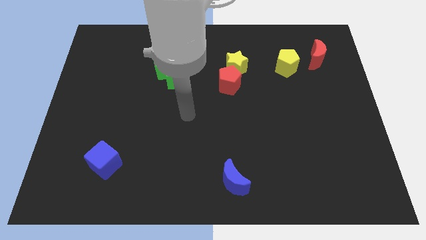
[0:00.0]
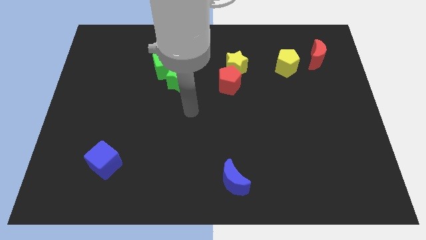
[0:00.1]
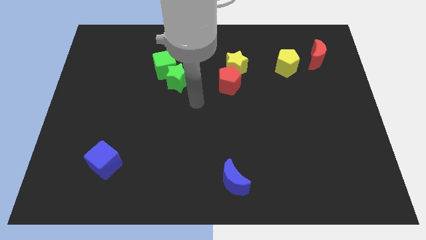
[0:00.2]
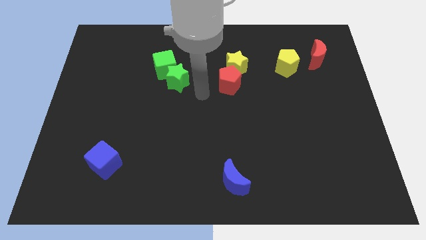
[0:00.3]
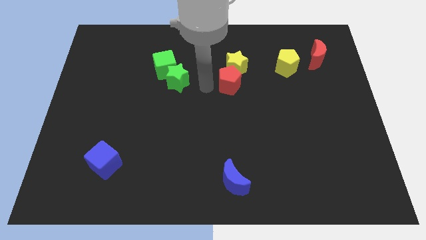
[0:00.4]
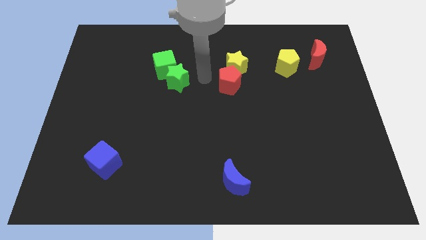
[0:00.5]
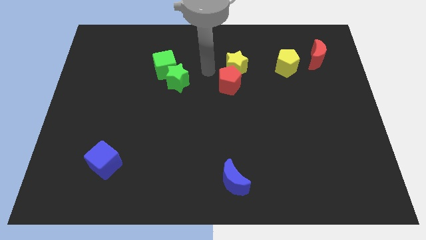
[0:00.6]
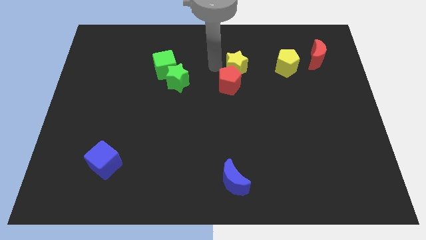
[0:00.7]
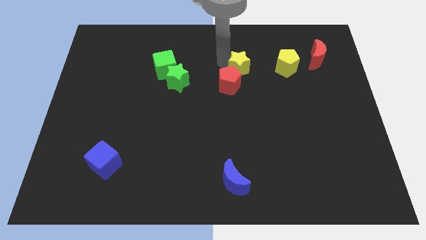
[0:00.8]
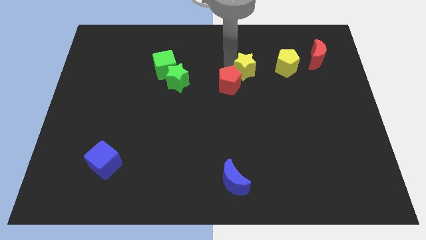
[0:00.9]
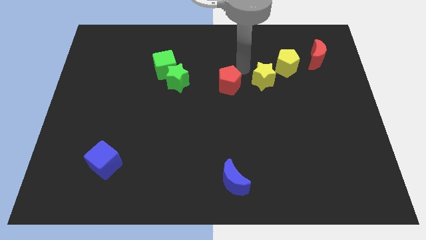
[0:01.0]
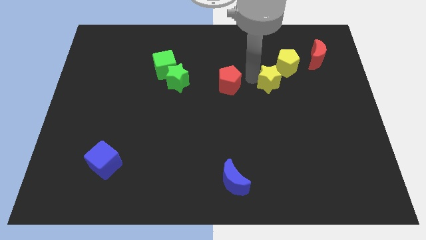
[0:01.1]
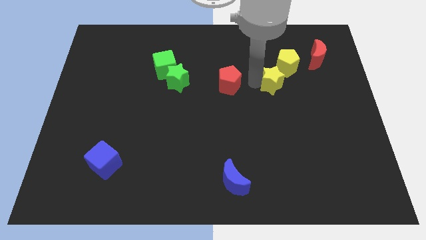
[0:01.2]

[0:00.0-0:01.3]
move the red pentagon away from the yellow star

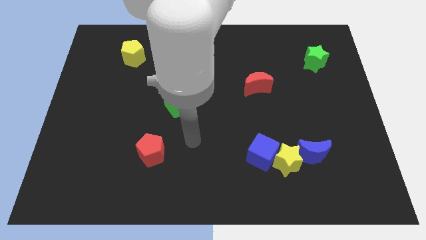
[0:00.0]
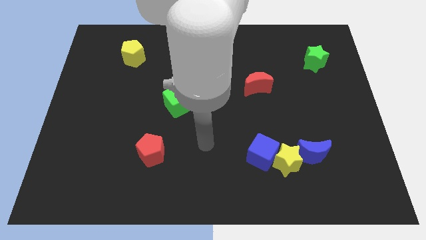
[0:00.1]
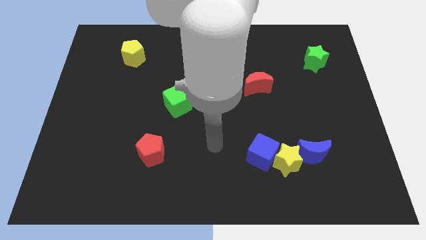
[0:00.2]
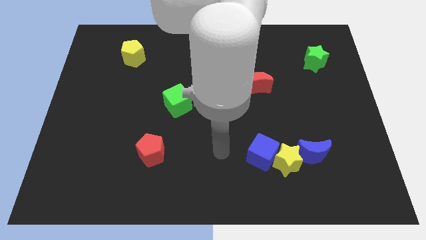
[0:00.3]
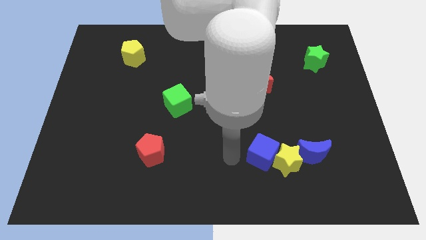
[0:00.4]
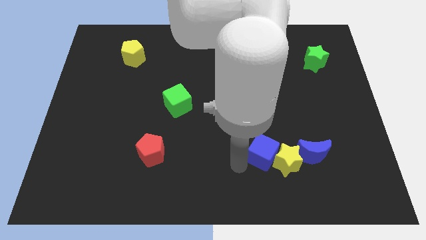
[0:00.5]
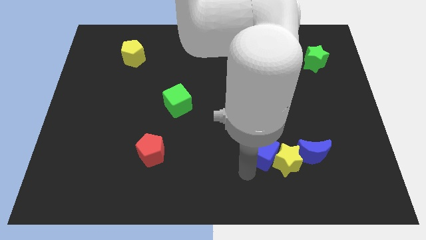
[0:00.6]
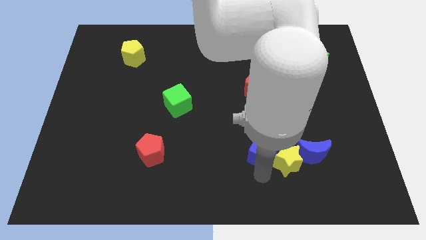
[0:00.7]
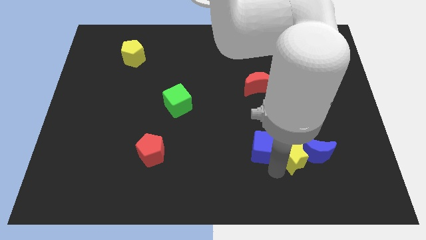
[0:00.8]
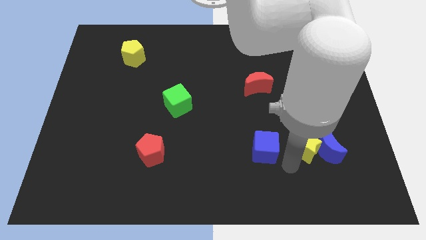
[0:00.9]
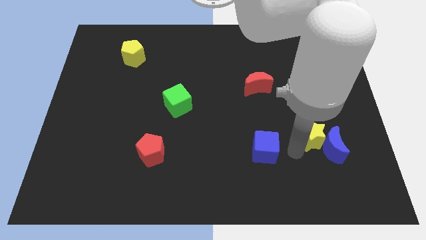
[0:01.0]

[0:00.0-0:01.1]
pull the blue cube apart from the yellow star

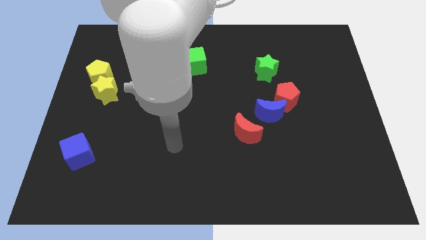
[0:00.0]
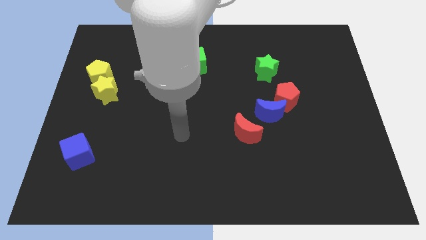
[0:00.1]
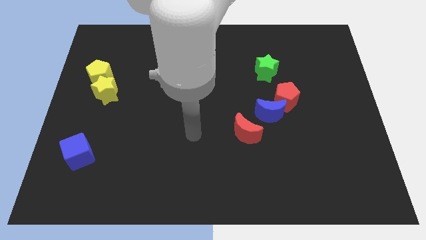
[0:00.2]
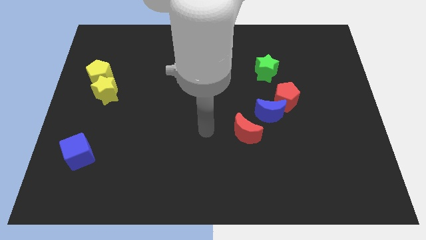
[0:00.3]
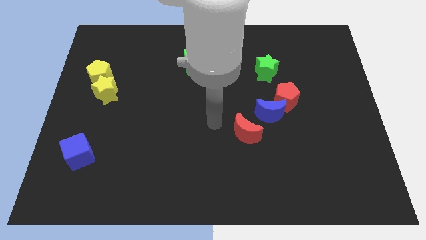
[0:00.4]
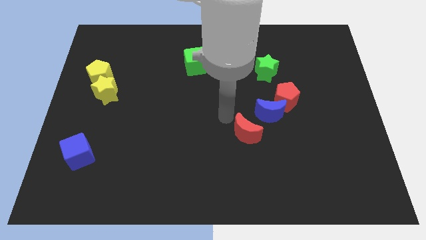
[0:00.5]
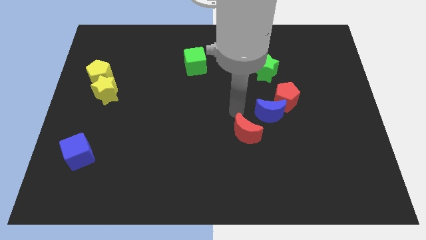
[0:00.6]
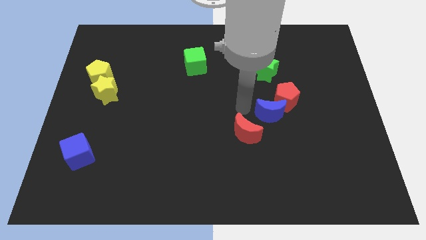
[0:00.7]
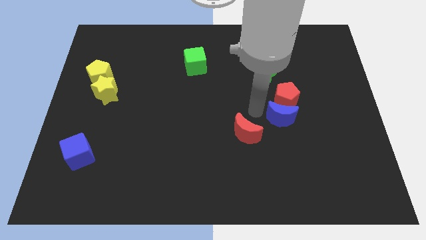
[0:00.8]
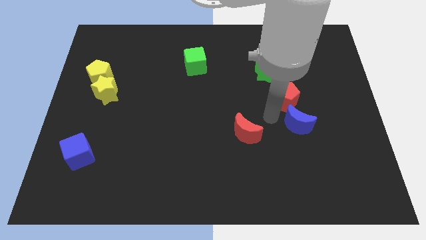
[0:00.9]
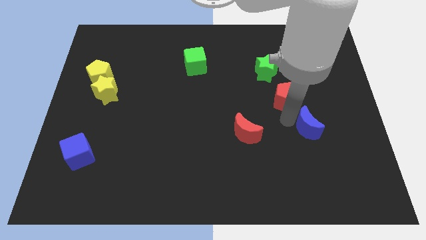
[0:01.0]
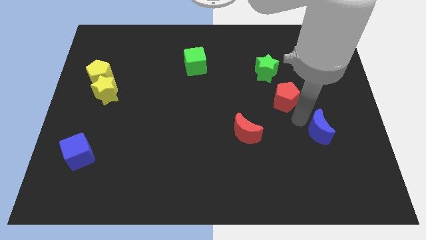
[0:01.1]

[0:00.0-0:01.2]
move the red pentagon away from the blue moon

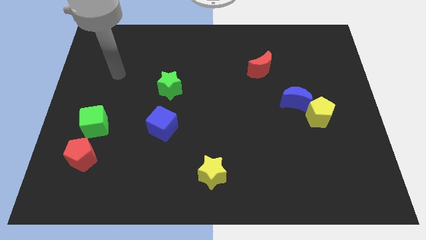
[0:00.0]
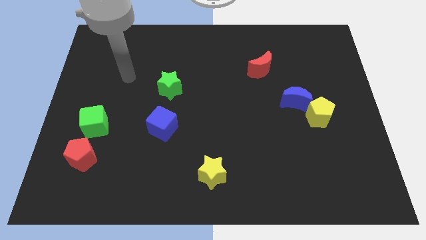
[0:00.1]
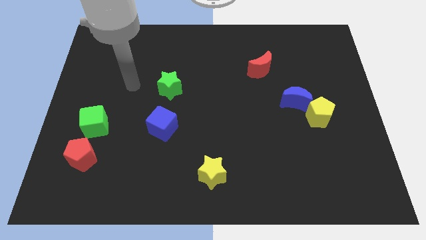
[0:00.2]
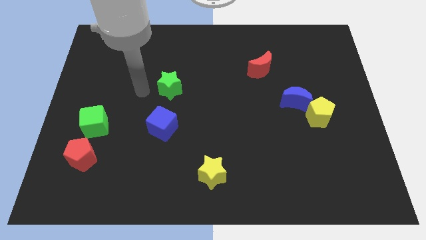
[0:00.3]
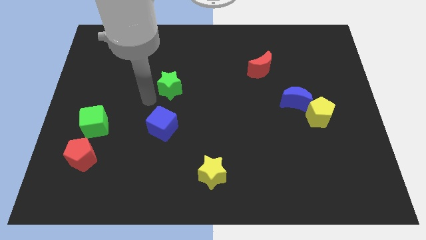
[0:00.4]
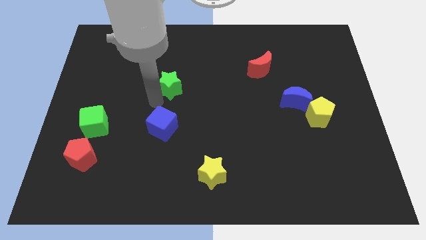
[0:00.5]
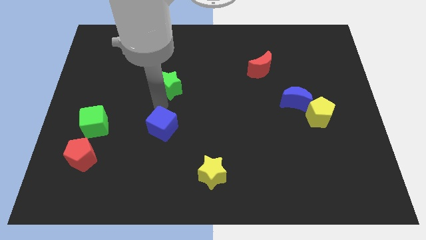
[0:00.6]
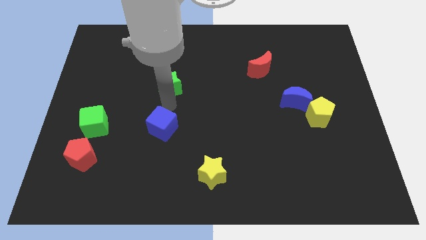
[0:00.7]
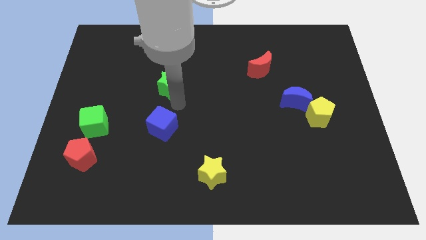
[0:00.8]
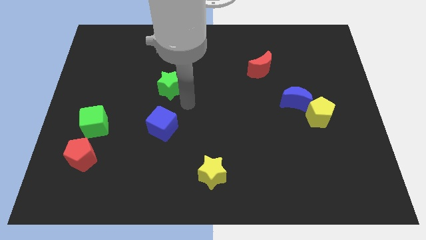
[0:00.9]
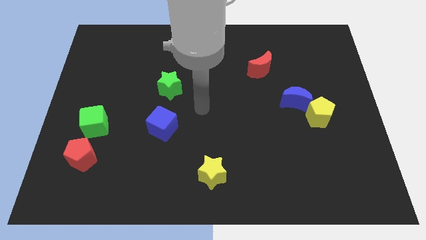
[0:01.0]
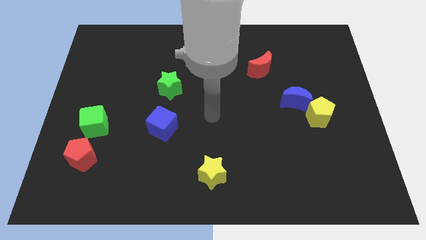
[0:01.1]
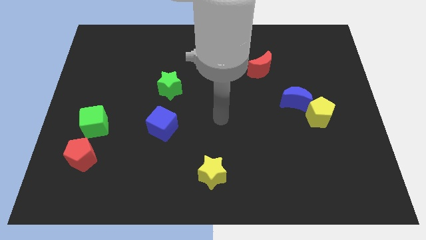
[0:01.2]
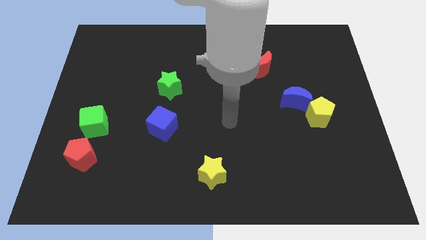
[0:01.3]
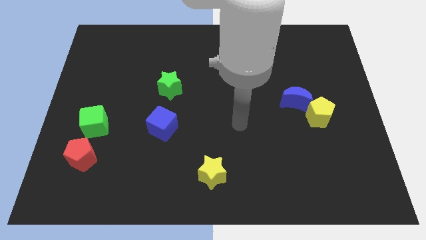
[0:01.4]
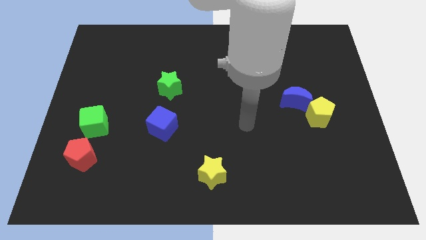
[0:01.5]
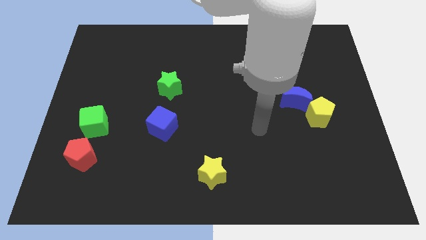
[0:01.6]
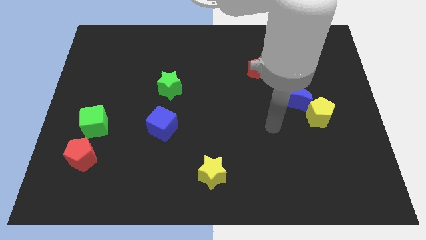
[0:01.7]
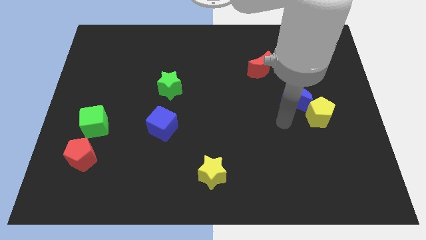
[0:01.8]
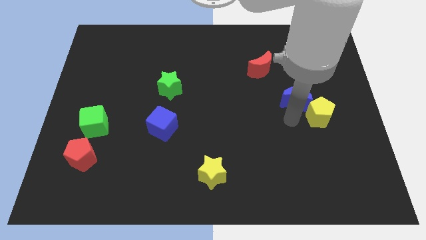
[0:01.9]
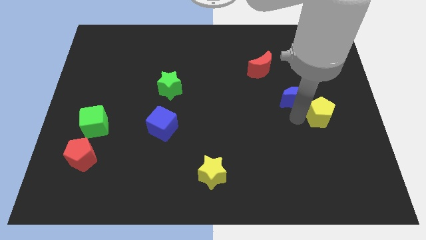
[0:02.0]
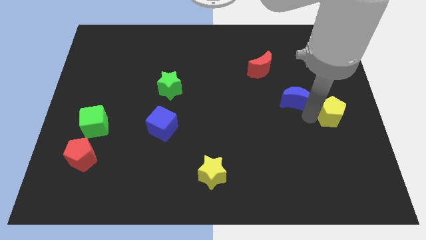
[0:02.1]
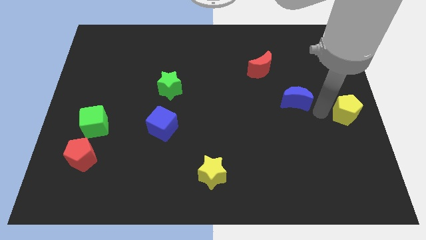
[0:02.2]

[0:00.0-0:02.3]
pull the blue moon apart from the yellow pentagon

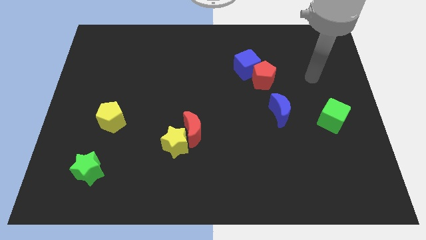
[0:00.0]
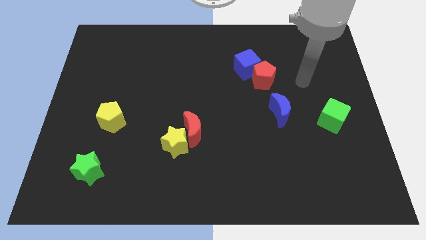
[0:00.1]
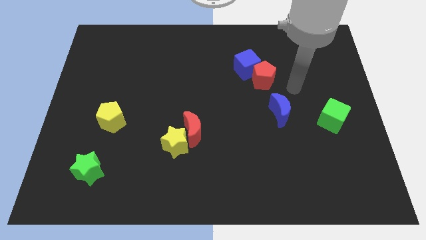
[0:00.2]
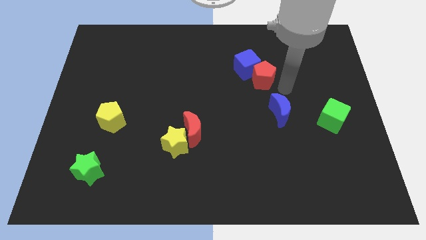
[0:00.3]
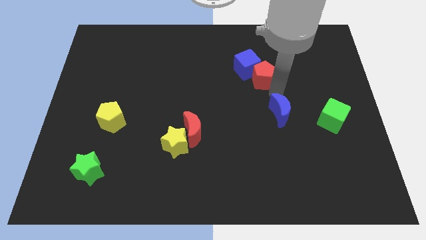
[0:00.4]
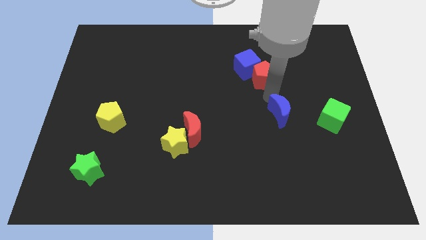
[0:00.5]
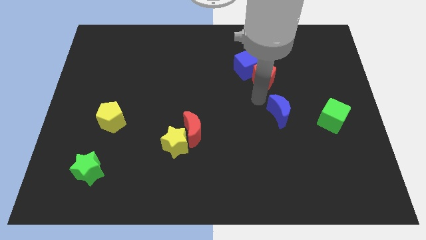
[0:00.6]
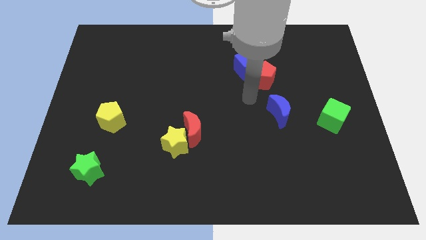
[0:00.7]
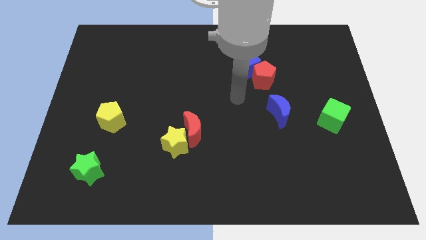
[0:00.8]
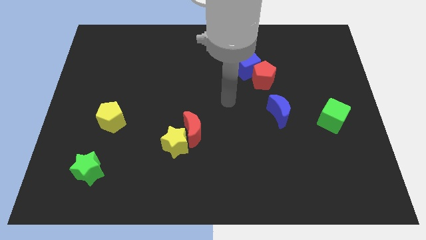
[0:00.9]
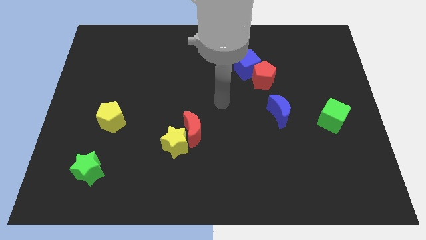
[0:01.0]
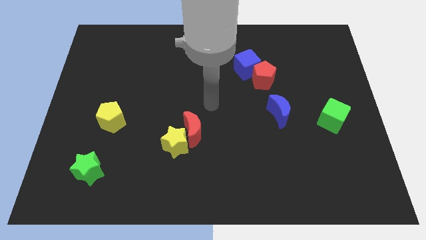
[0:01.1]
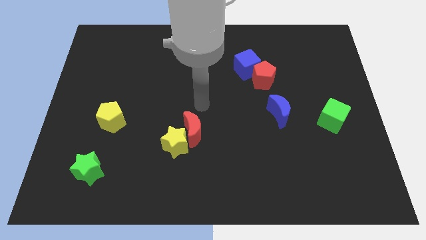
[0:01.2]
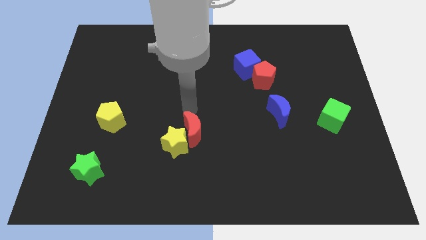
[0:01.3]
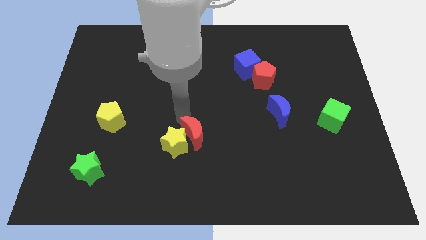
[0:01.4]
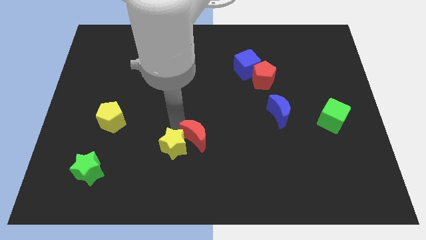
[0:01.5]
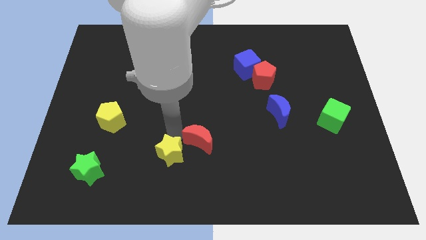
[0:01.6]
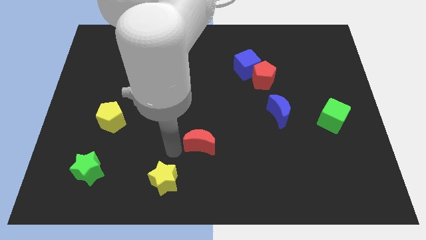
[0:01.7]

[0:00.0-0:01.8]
pull the red moon apart from the yellow star

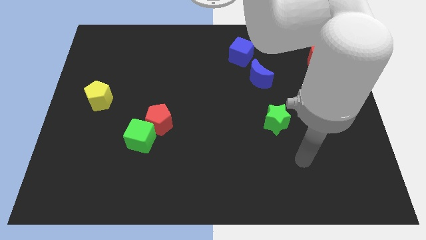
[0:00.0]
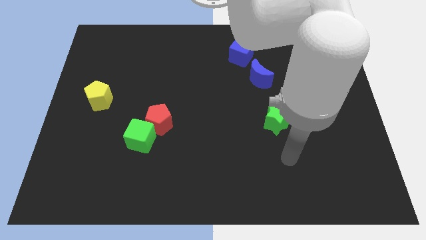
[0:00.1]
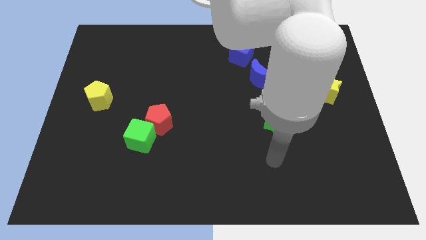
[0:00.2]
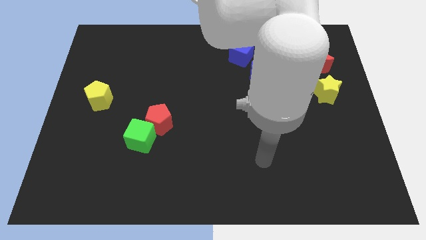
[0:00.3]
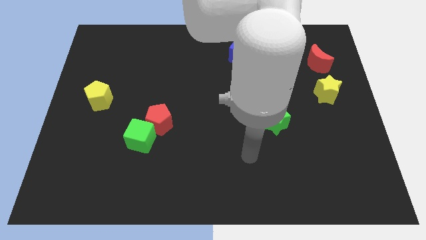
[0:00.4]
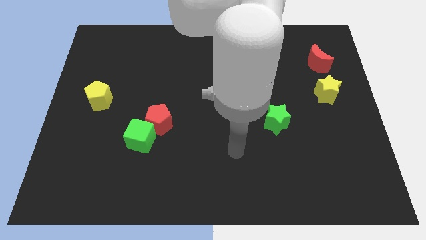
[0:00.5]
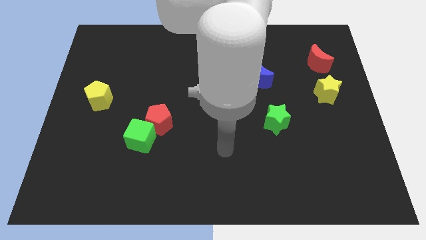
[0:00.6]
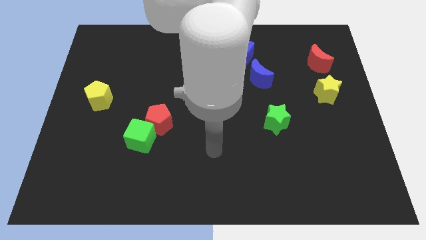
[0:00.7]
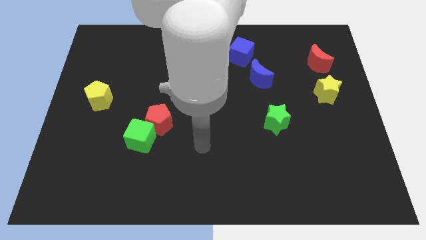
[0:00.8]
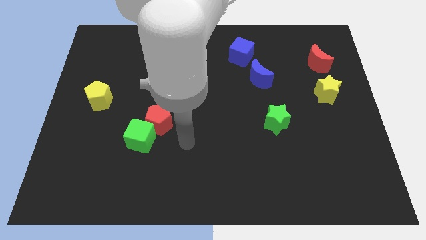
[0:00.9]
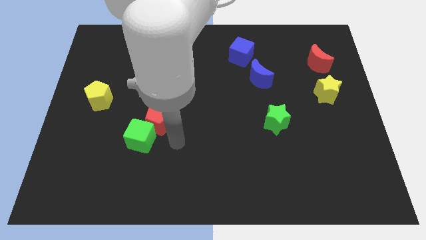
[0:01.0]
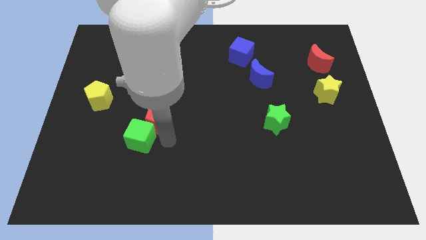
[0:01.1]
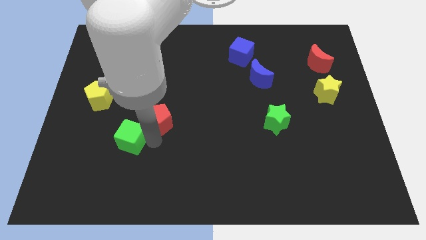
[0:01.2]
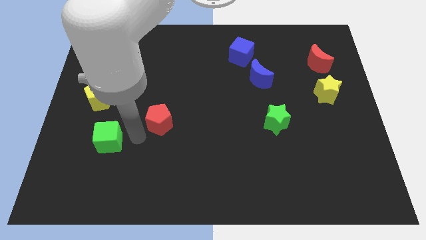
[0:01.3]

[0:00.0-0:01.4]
pull the red pentagon apart from the green cube

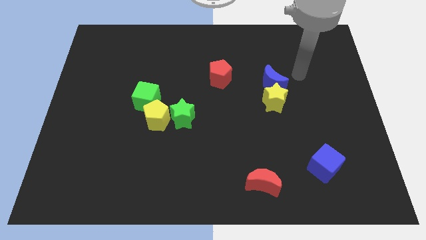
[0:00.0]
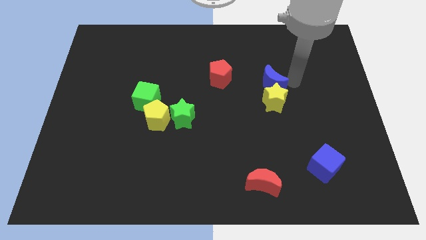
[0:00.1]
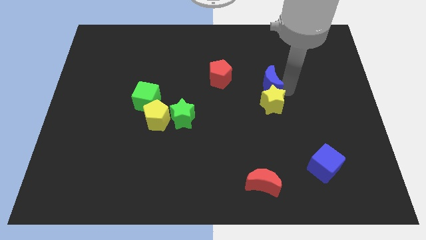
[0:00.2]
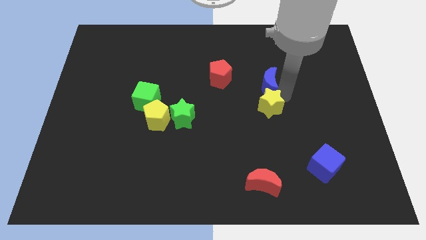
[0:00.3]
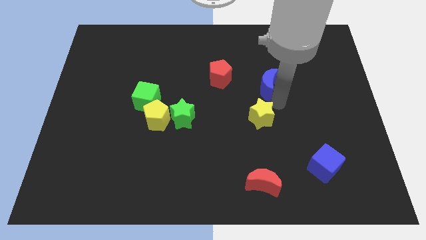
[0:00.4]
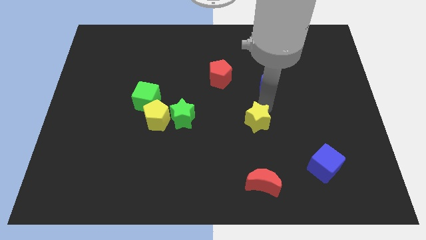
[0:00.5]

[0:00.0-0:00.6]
separate the blue moon from the yellow star
